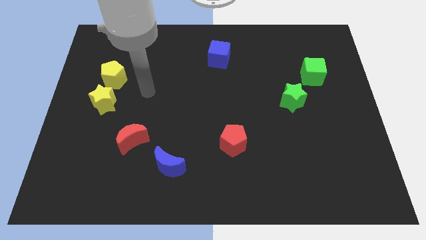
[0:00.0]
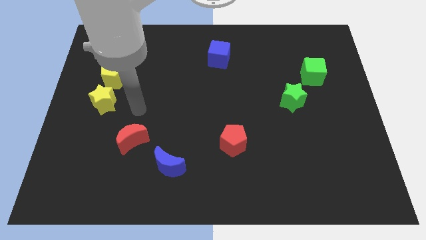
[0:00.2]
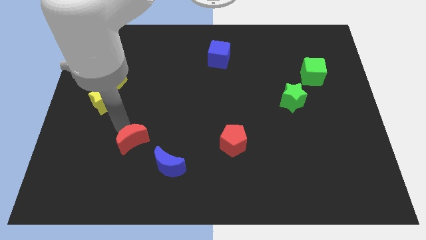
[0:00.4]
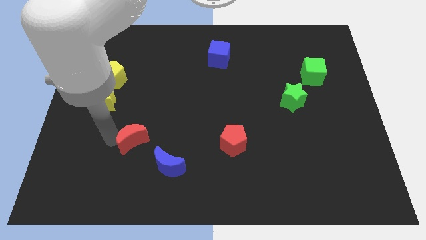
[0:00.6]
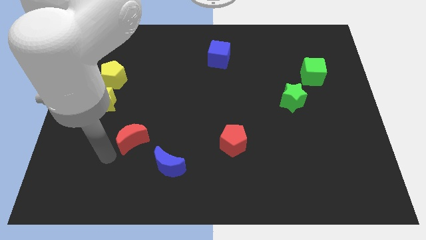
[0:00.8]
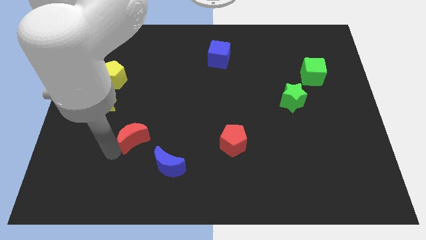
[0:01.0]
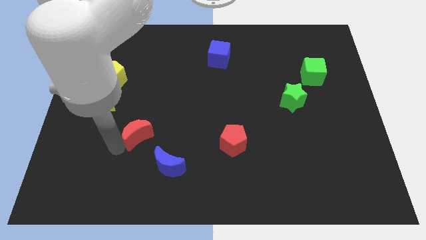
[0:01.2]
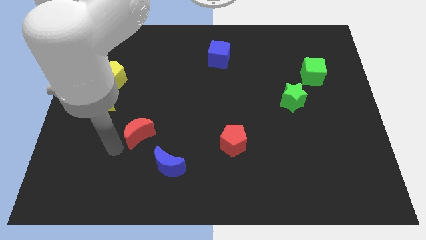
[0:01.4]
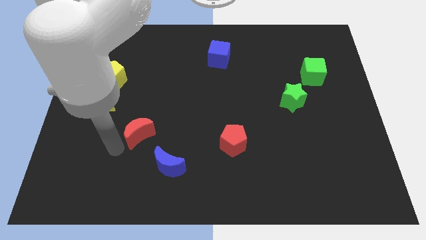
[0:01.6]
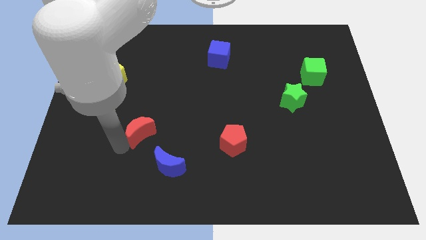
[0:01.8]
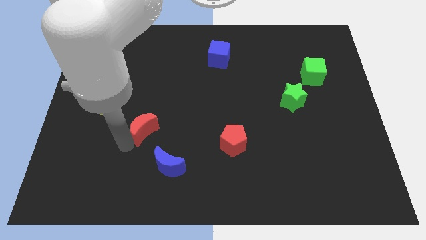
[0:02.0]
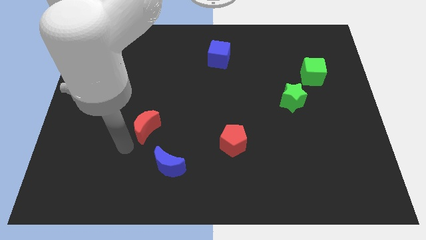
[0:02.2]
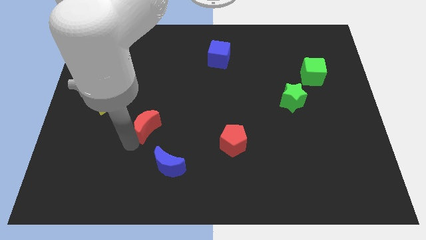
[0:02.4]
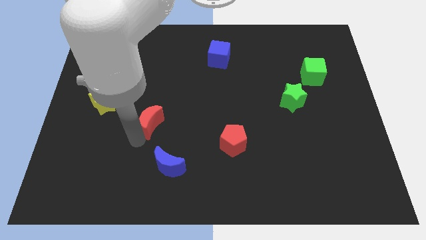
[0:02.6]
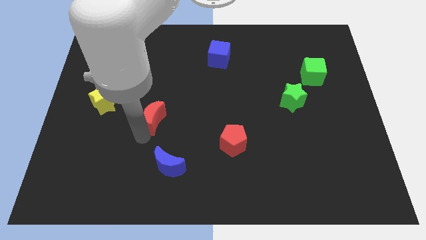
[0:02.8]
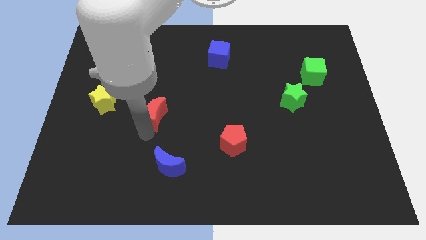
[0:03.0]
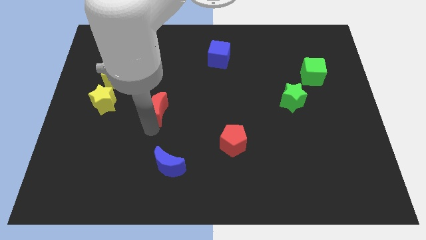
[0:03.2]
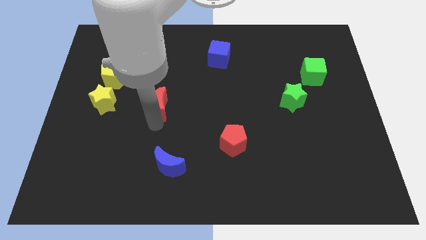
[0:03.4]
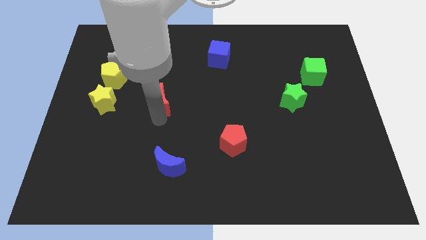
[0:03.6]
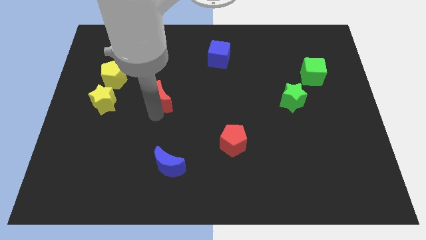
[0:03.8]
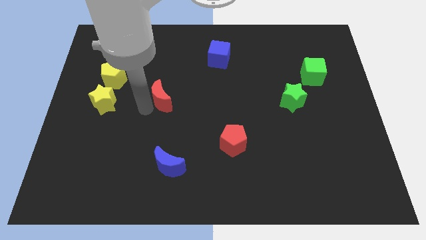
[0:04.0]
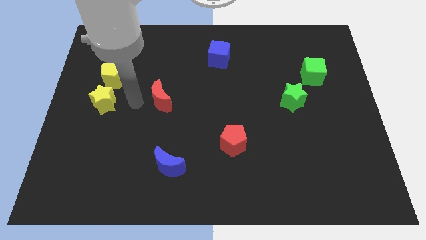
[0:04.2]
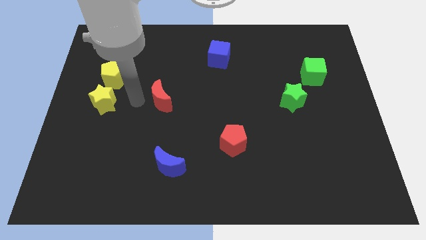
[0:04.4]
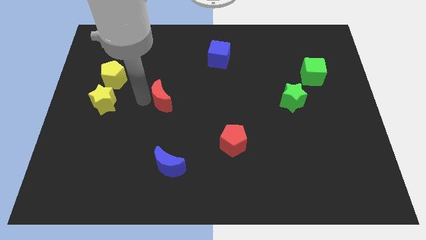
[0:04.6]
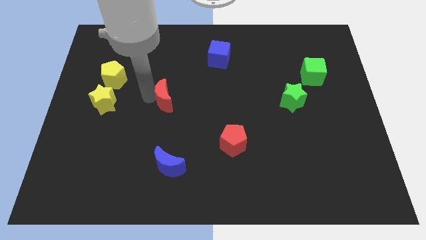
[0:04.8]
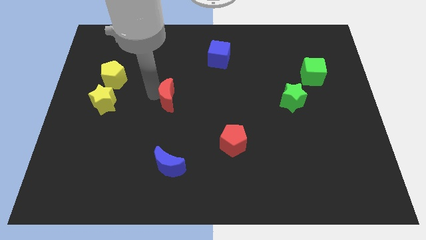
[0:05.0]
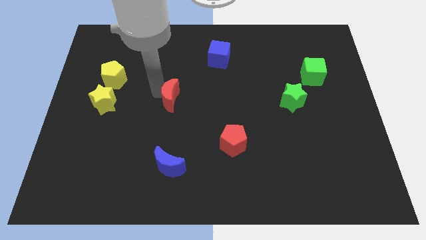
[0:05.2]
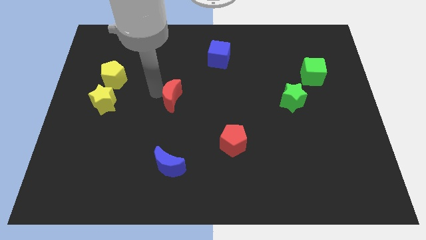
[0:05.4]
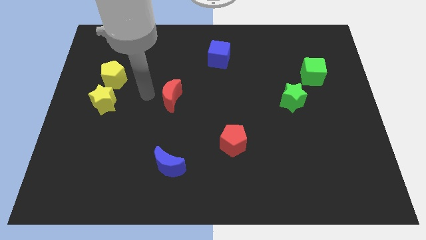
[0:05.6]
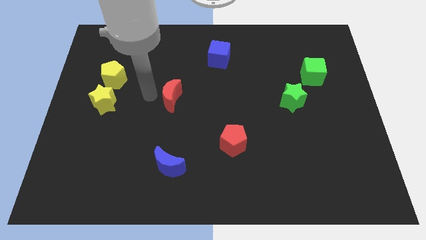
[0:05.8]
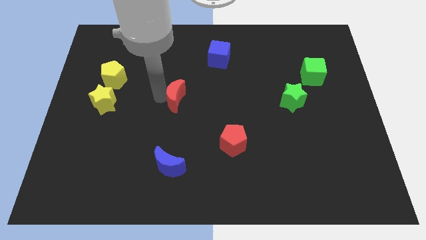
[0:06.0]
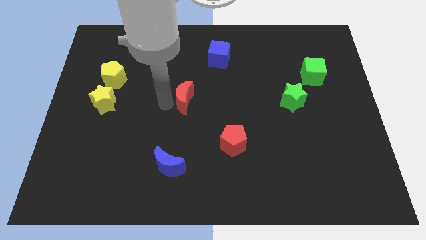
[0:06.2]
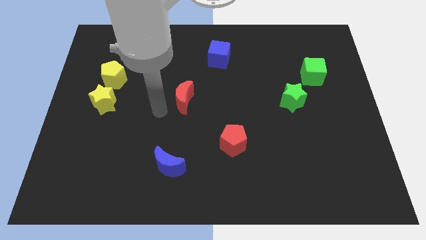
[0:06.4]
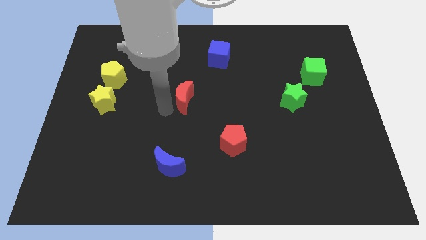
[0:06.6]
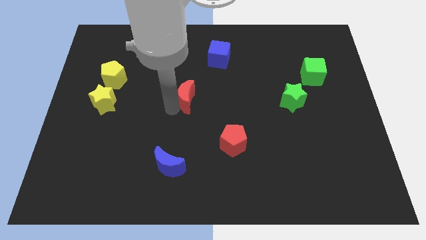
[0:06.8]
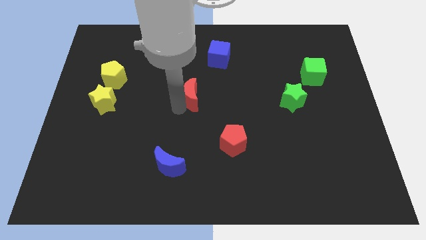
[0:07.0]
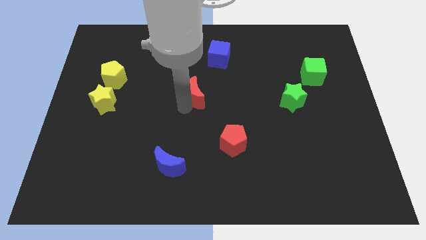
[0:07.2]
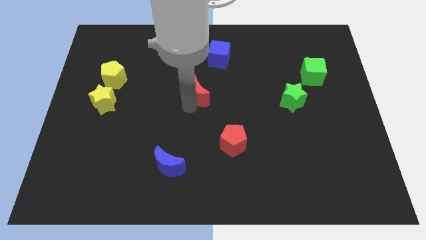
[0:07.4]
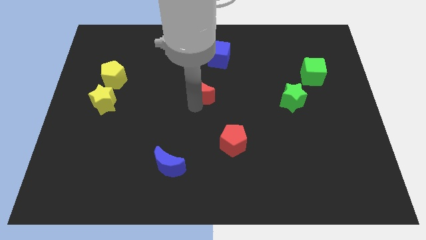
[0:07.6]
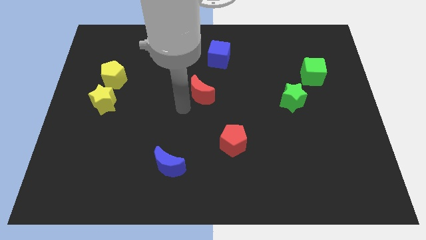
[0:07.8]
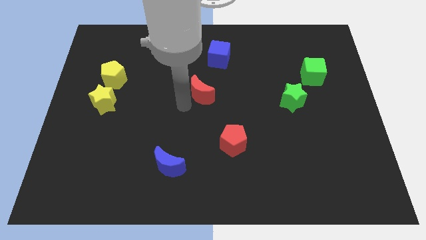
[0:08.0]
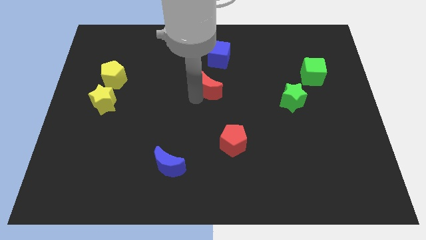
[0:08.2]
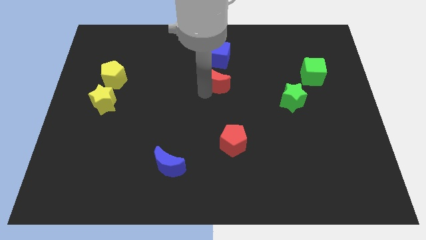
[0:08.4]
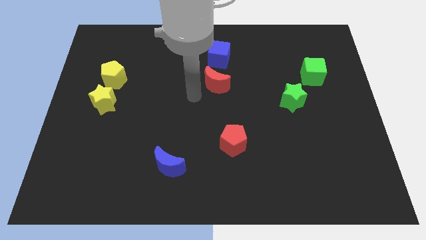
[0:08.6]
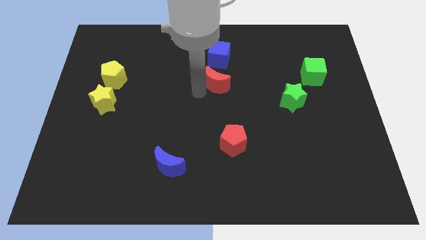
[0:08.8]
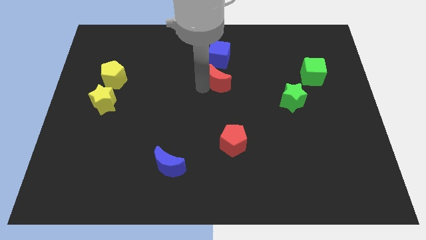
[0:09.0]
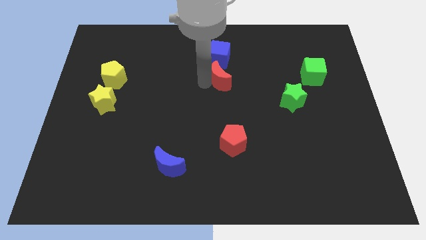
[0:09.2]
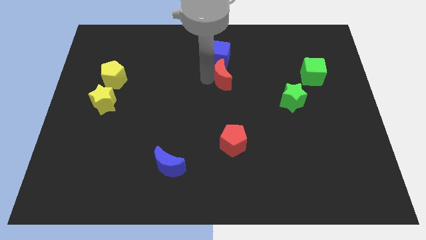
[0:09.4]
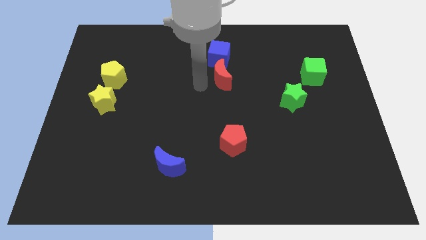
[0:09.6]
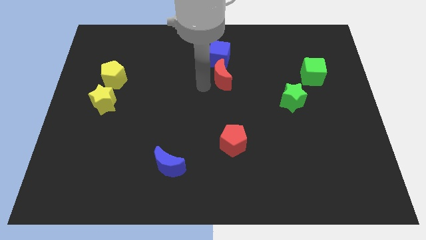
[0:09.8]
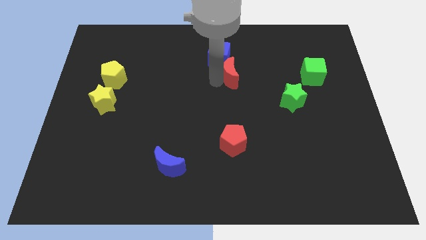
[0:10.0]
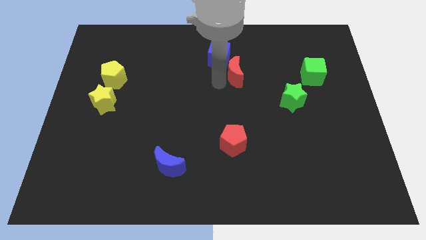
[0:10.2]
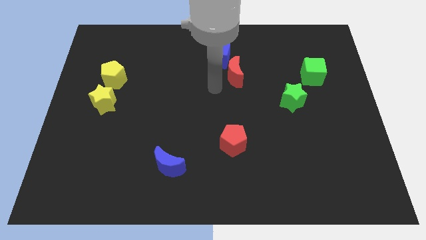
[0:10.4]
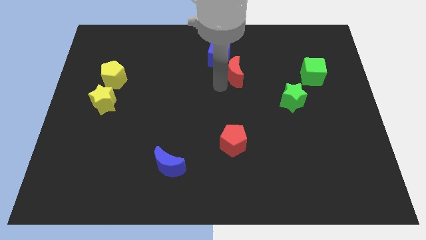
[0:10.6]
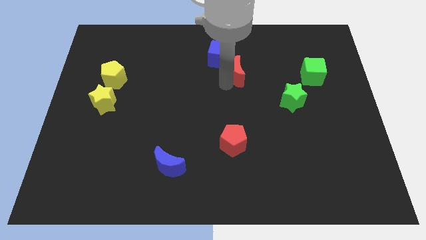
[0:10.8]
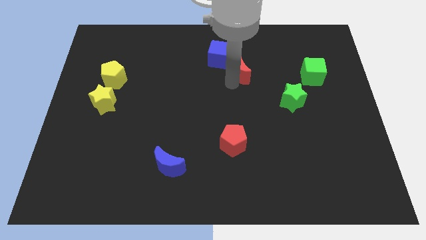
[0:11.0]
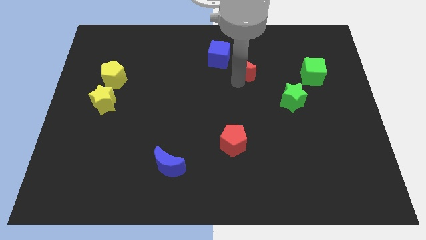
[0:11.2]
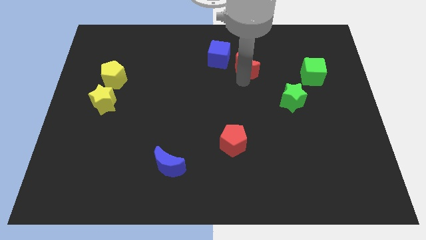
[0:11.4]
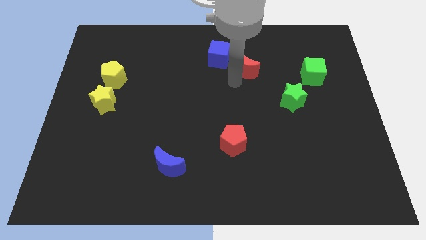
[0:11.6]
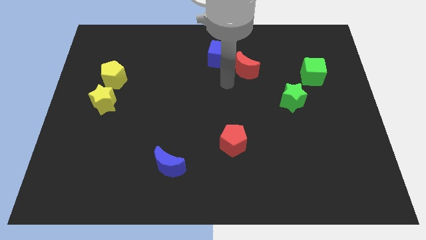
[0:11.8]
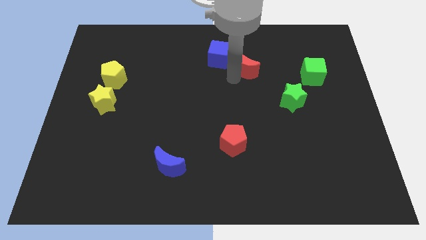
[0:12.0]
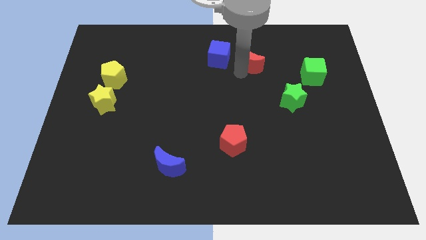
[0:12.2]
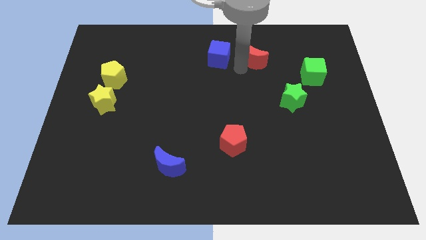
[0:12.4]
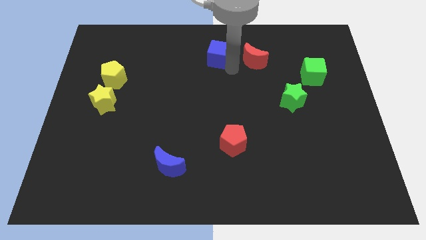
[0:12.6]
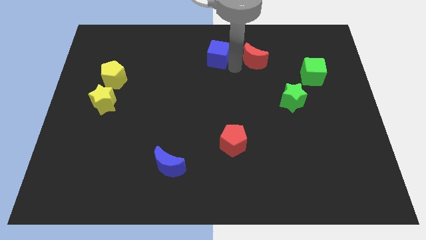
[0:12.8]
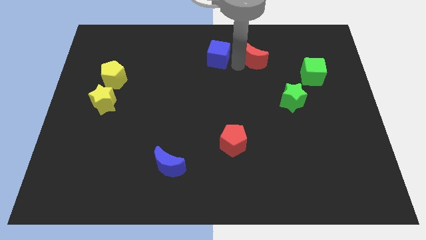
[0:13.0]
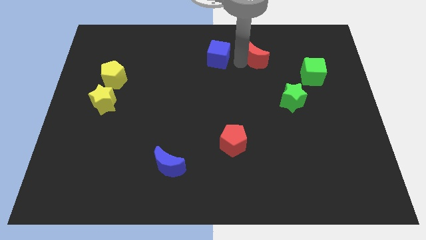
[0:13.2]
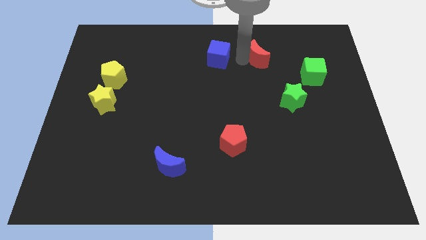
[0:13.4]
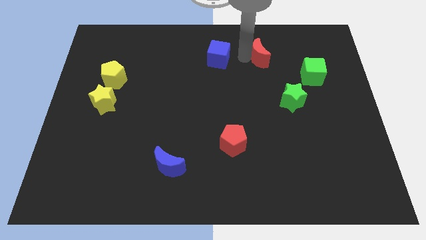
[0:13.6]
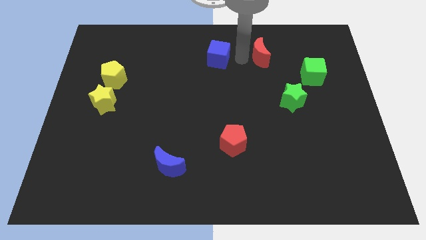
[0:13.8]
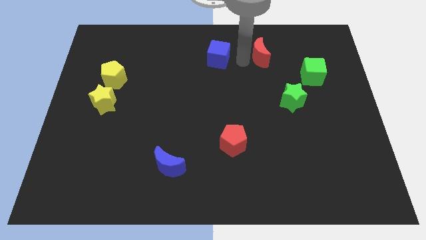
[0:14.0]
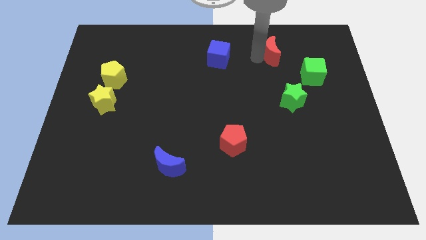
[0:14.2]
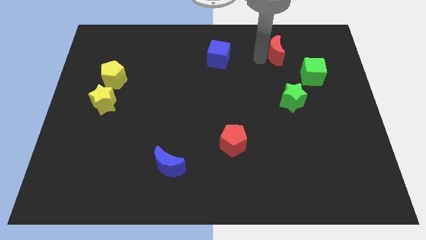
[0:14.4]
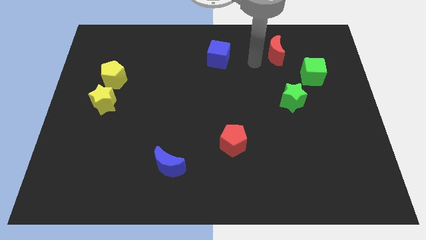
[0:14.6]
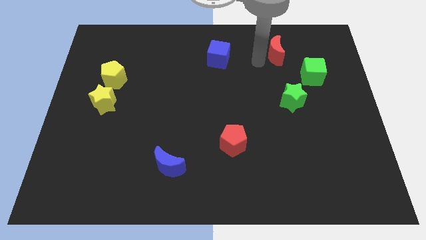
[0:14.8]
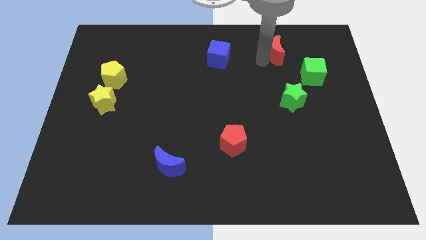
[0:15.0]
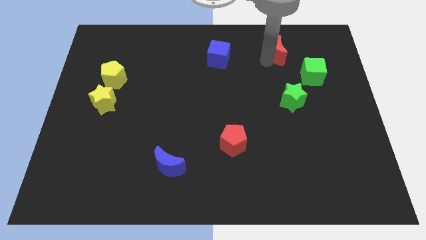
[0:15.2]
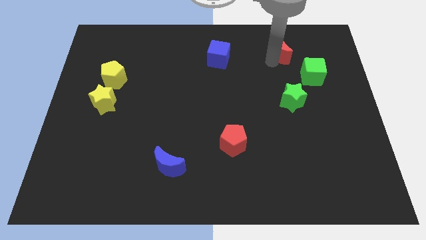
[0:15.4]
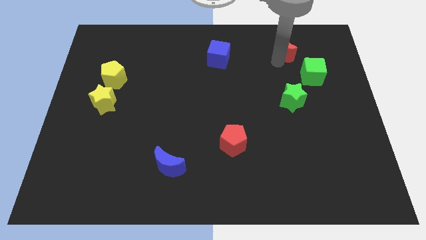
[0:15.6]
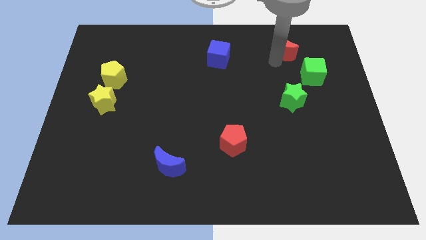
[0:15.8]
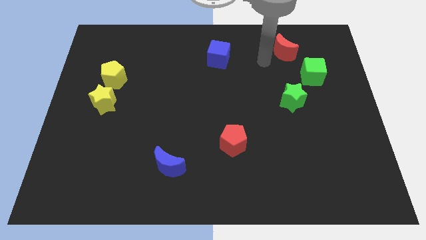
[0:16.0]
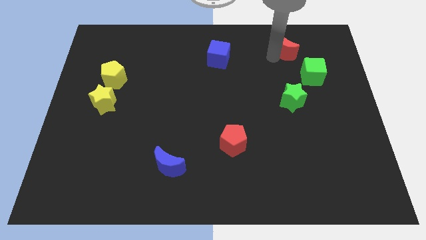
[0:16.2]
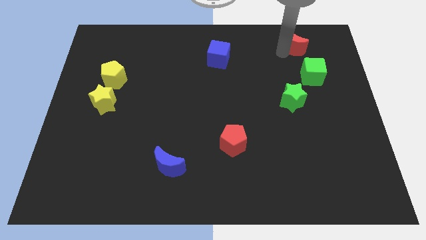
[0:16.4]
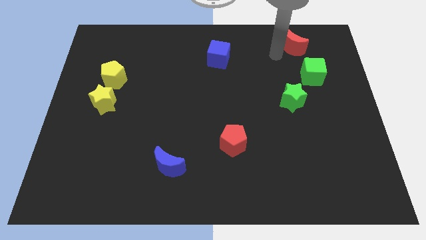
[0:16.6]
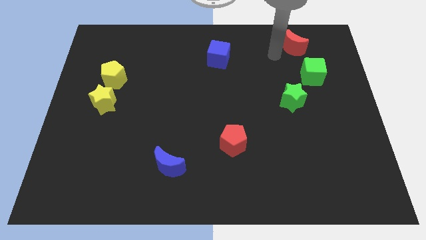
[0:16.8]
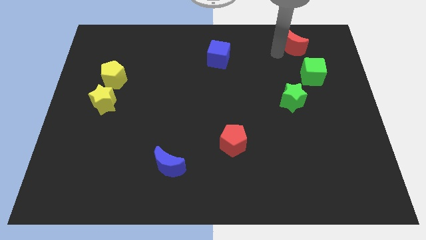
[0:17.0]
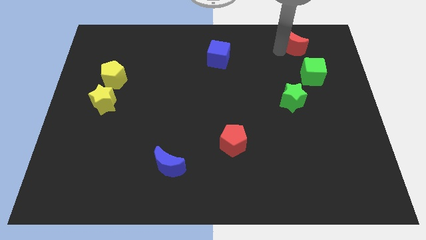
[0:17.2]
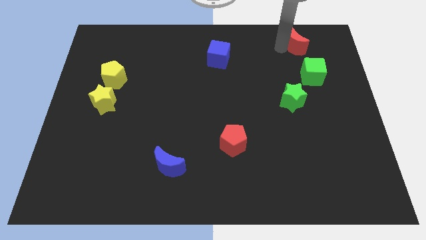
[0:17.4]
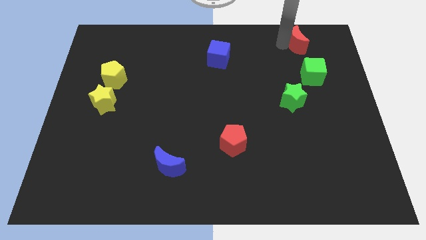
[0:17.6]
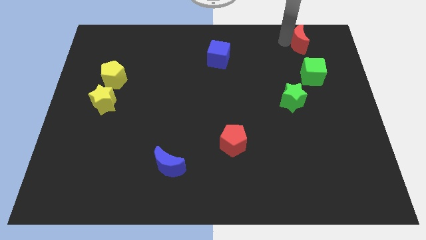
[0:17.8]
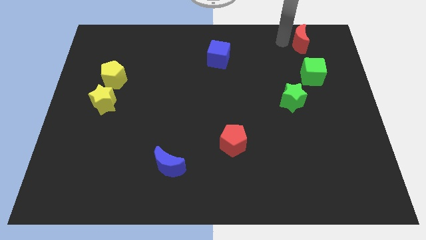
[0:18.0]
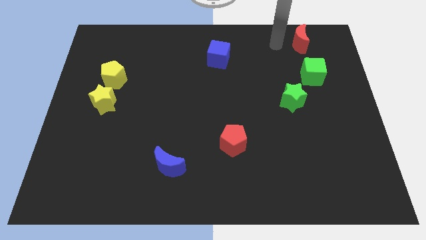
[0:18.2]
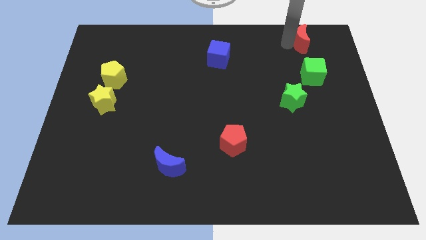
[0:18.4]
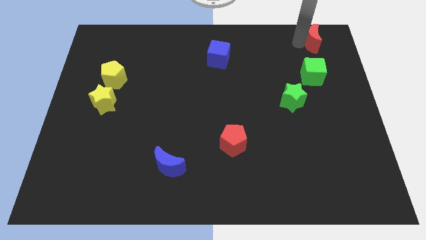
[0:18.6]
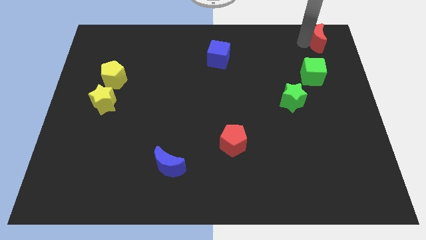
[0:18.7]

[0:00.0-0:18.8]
move the red moon to the top right corner
